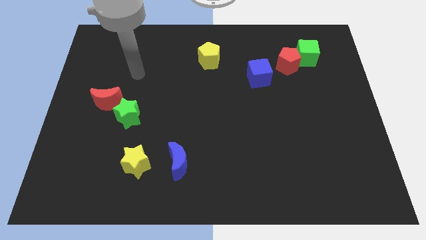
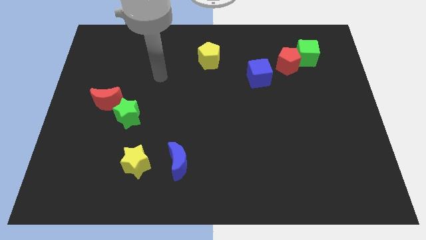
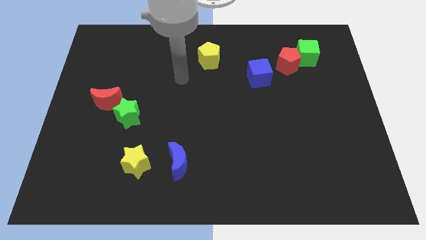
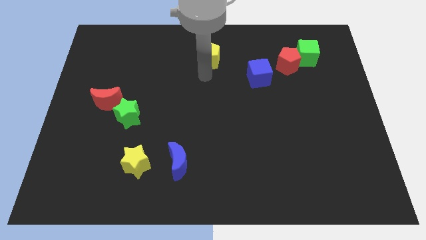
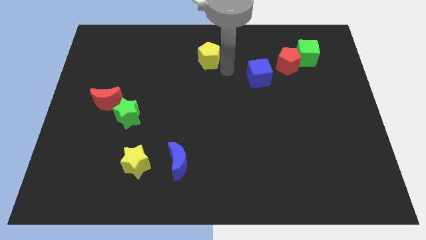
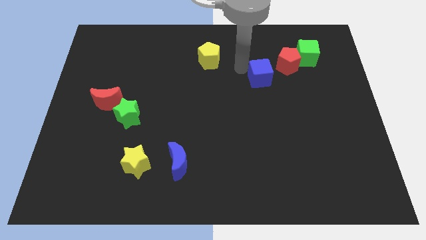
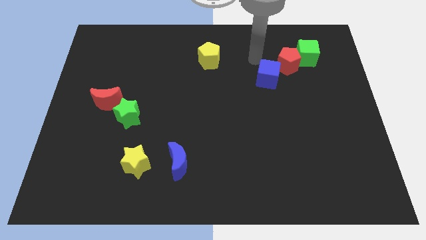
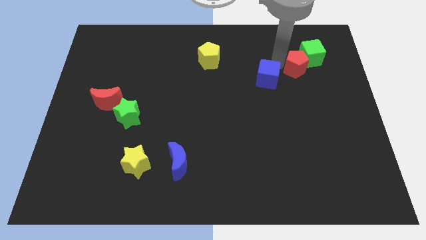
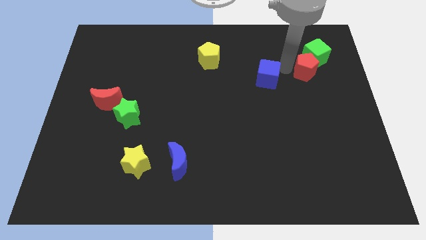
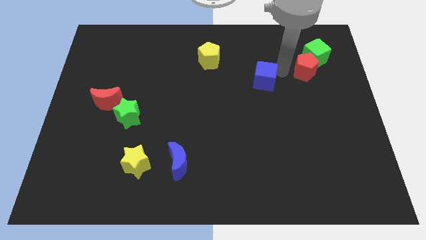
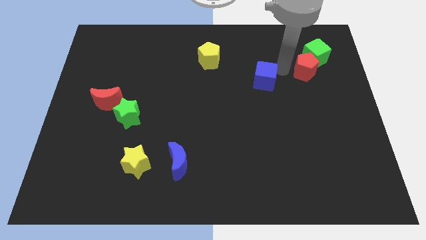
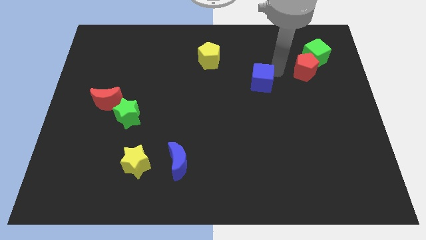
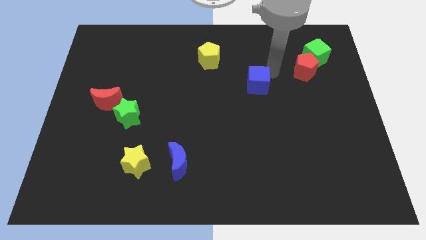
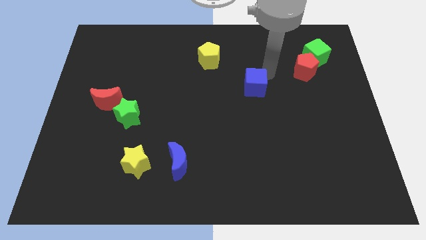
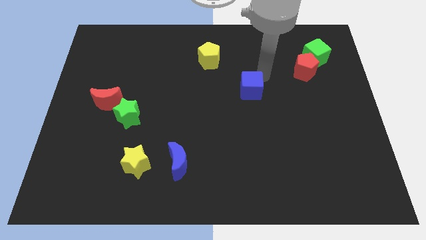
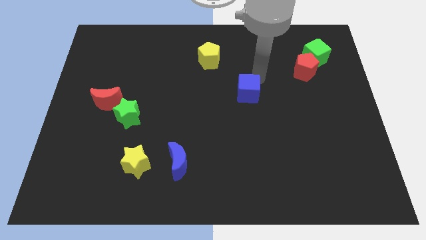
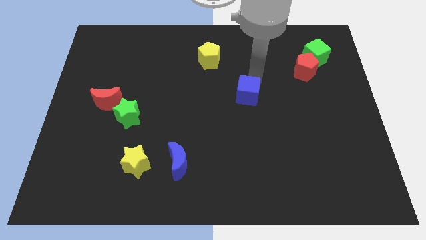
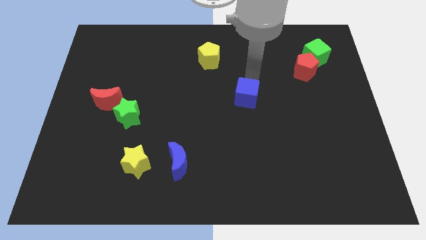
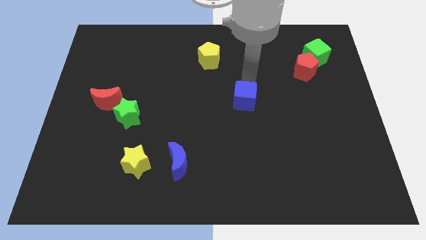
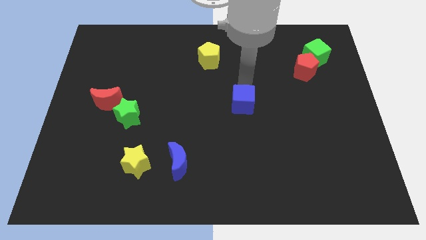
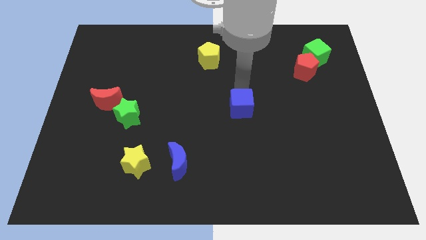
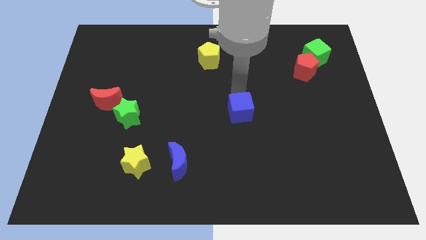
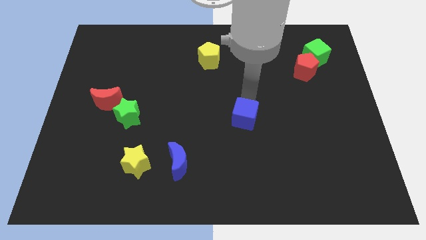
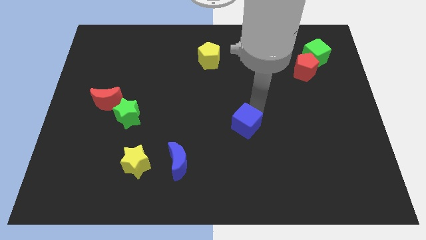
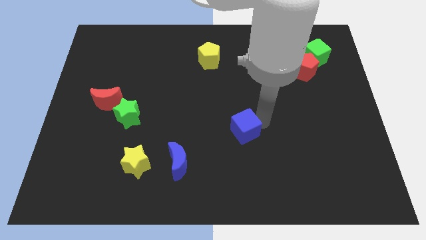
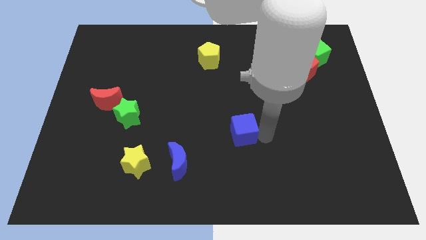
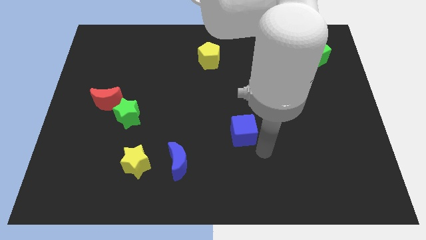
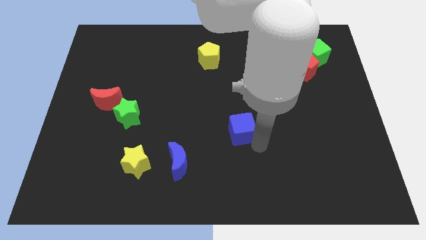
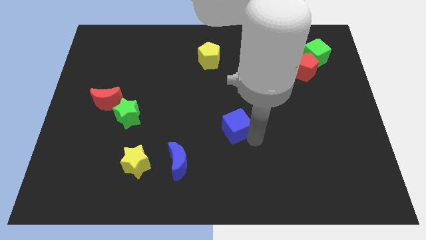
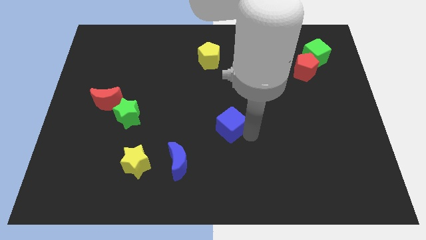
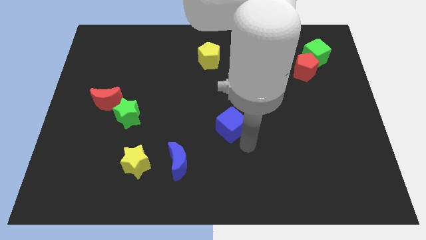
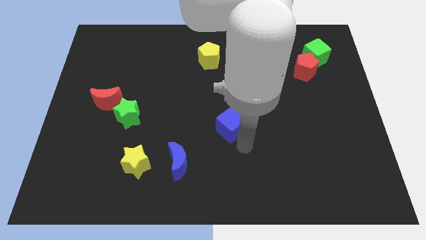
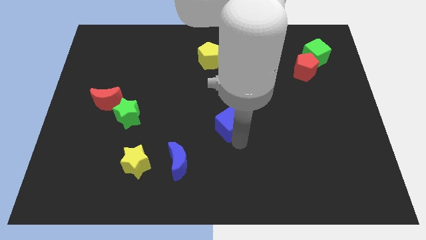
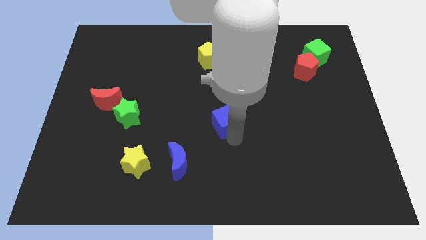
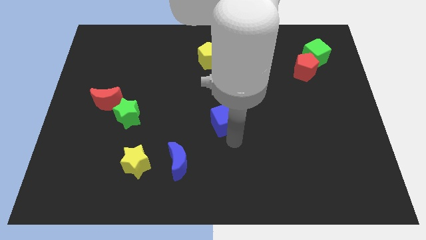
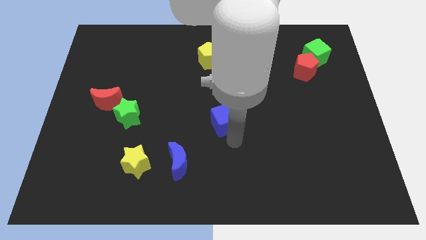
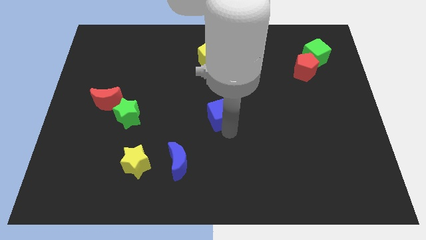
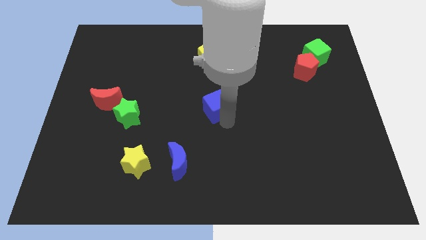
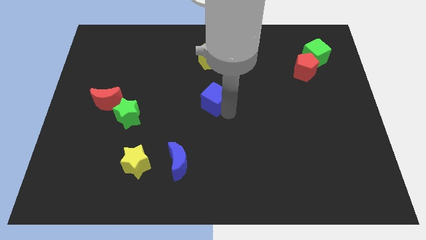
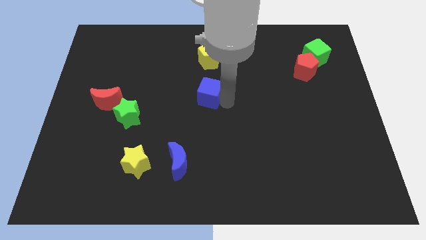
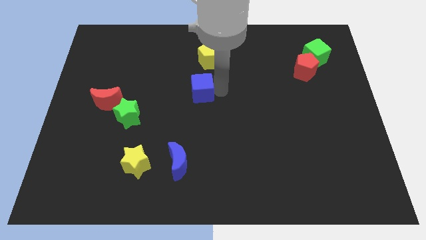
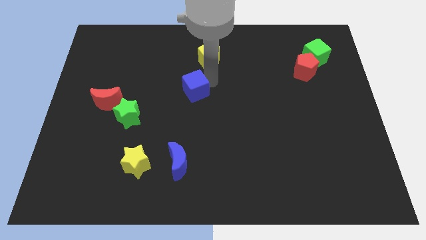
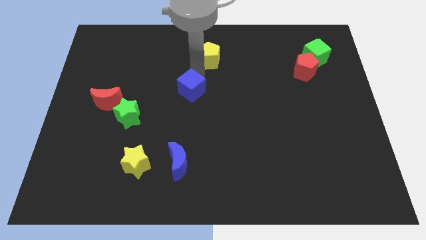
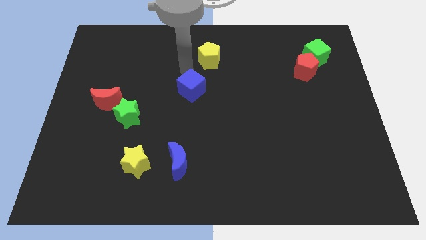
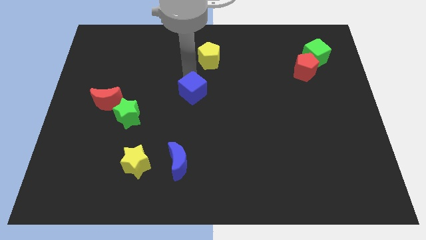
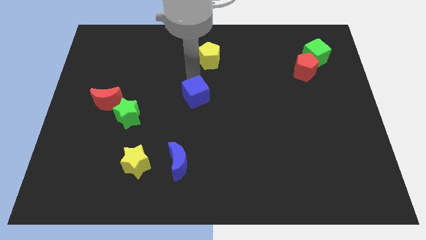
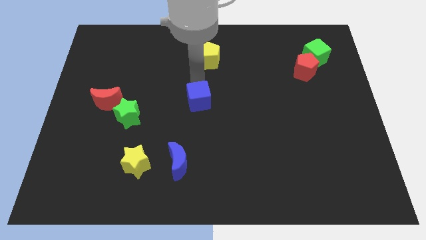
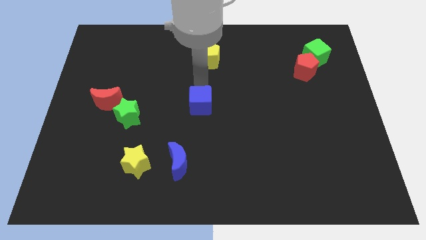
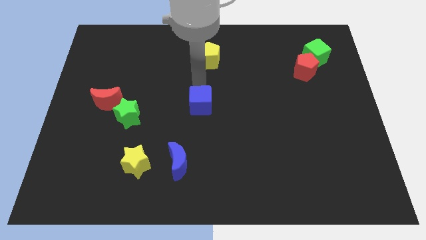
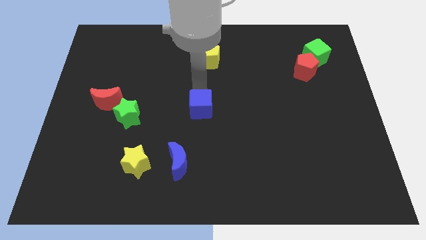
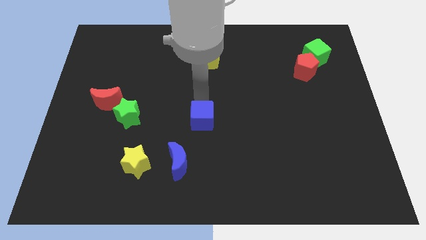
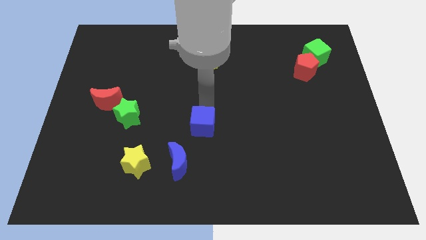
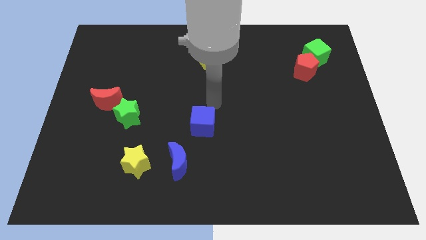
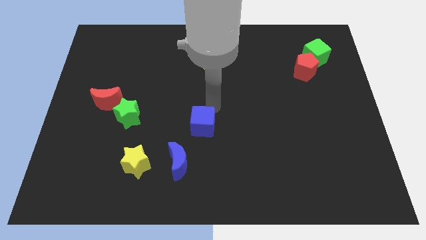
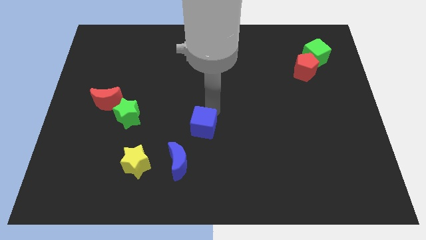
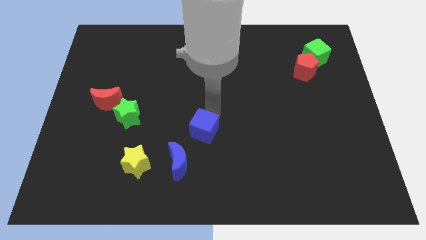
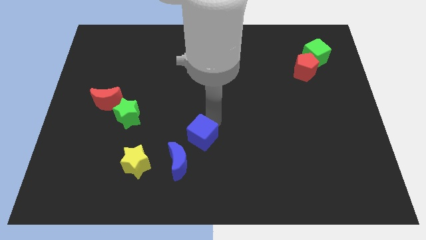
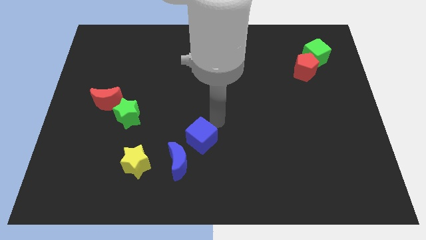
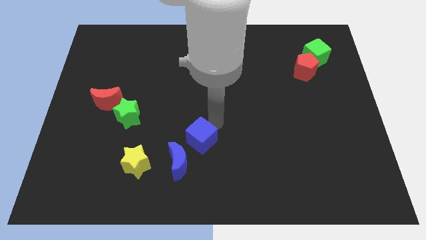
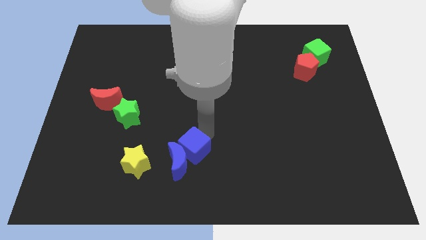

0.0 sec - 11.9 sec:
push the blue cube close to the blue moon

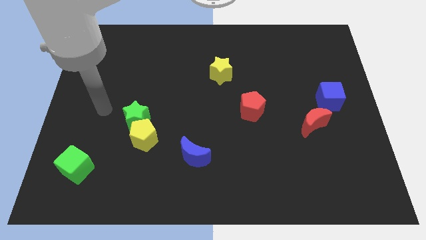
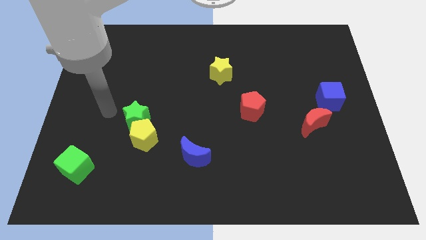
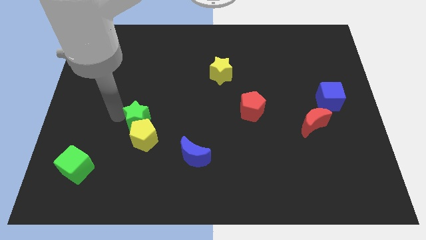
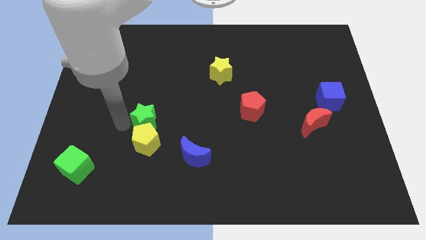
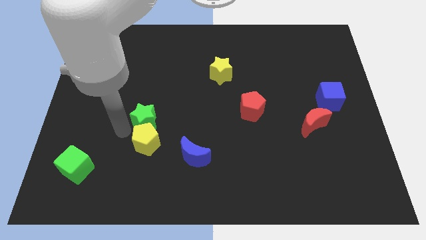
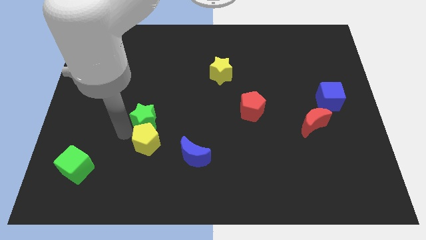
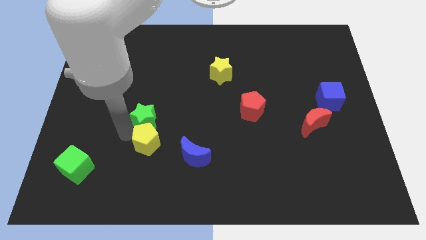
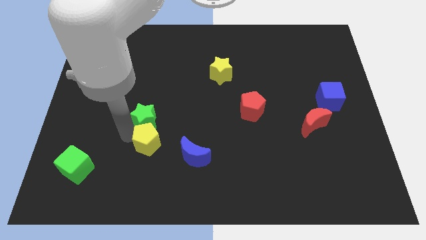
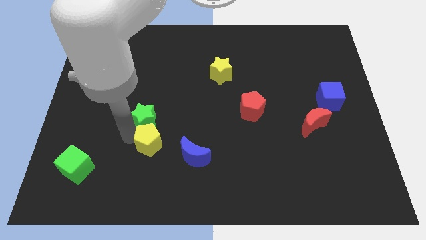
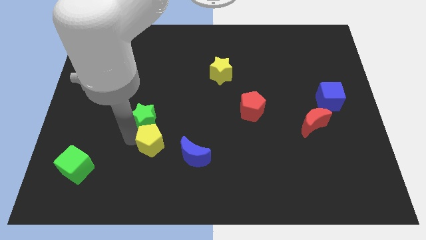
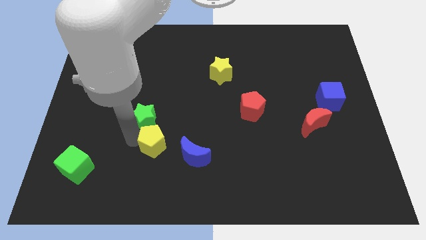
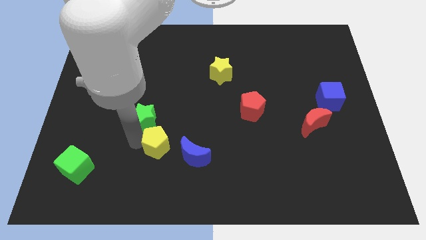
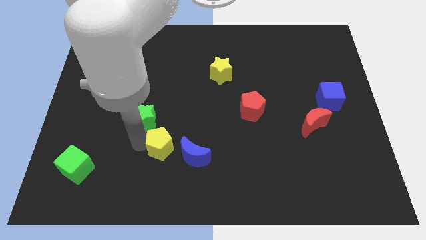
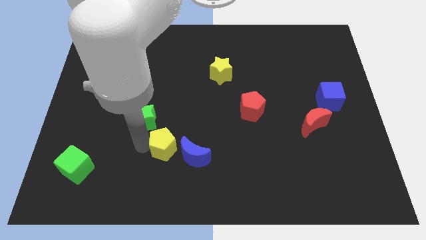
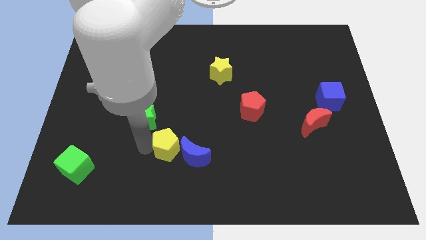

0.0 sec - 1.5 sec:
move the yellow pentagon to the blue moon

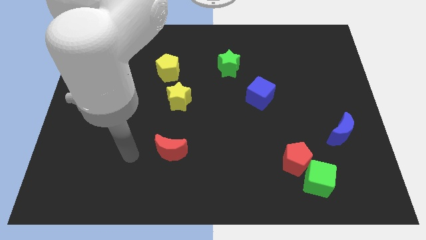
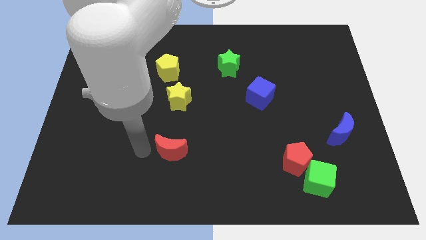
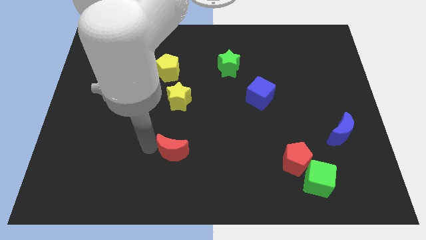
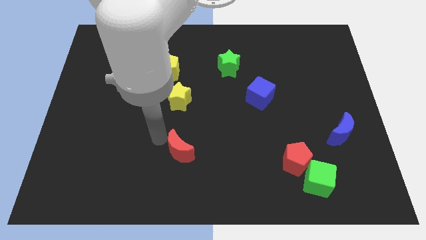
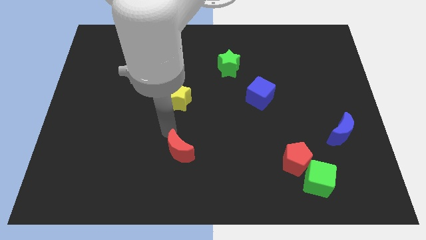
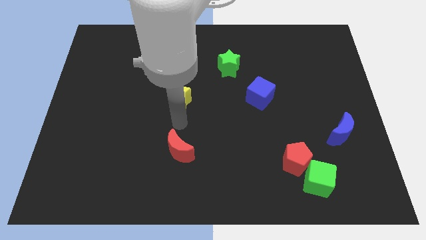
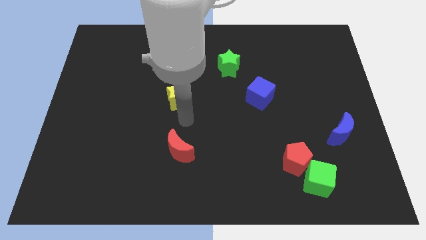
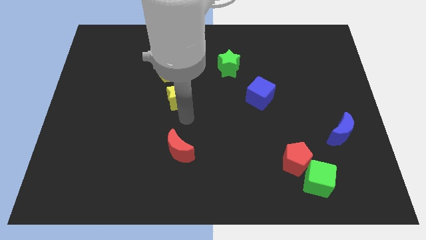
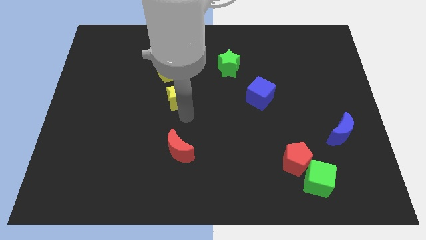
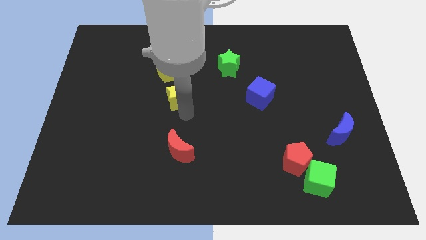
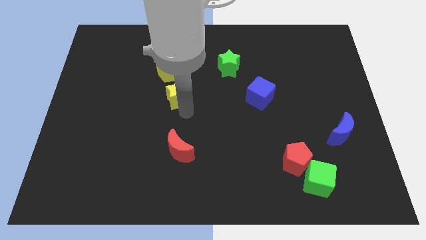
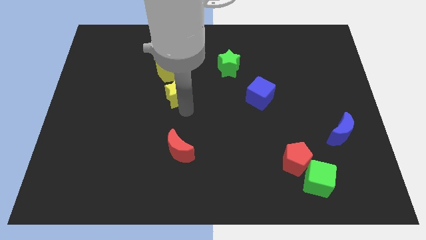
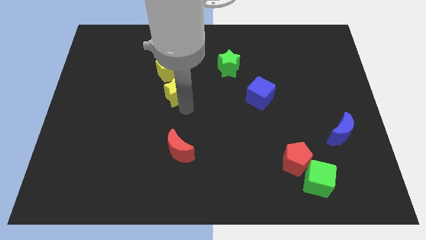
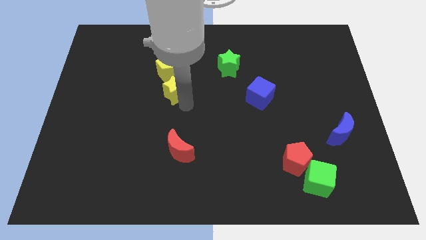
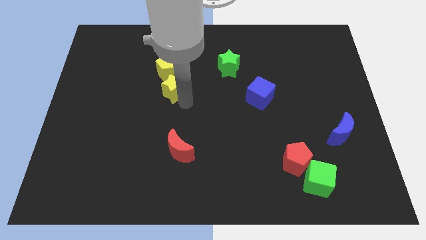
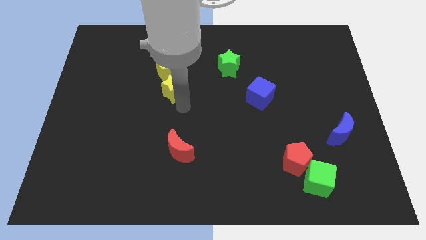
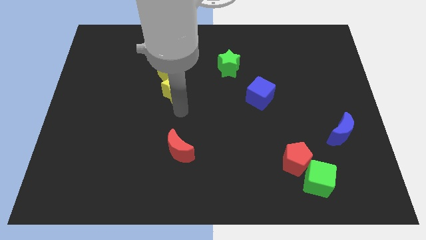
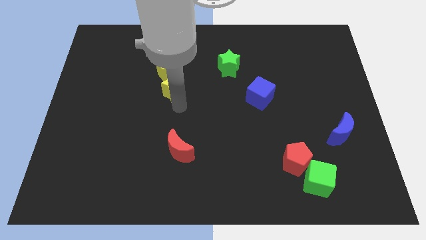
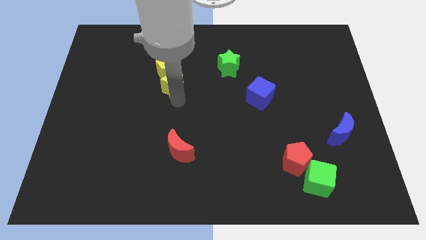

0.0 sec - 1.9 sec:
slide the yellow star to the yellow pentagon
